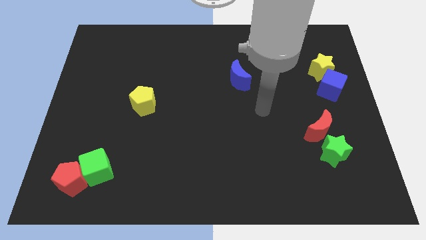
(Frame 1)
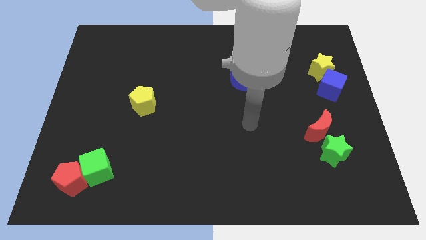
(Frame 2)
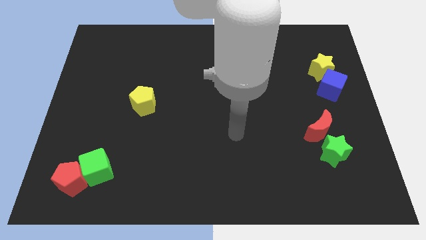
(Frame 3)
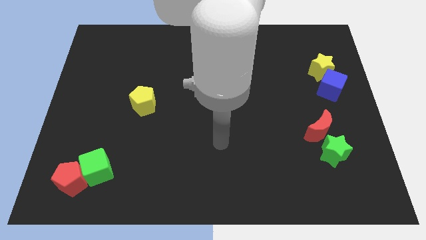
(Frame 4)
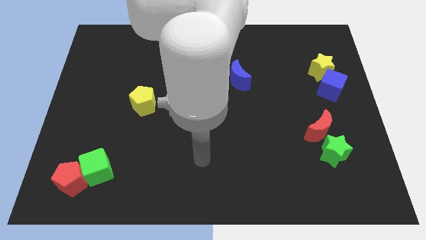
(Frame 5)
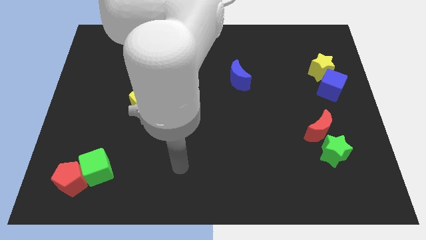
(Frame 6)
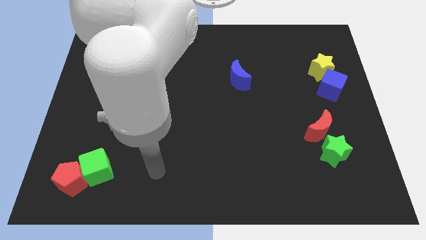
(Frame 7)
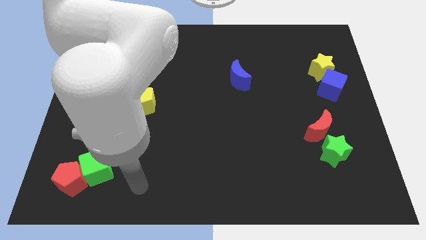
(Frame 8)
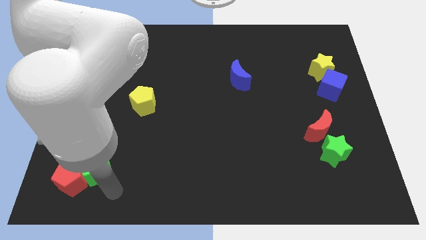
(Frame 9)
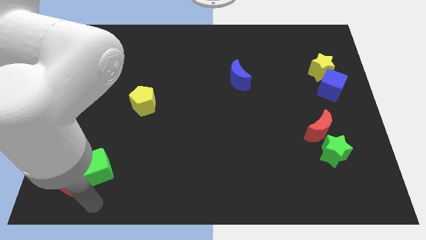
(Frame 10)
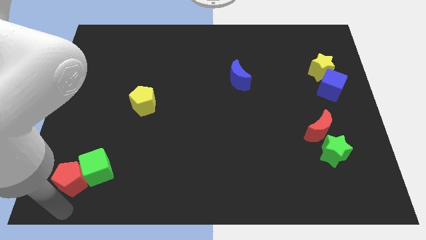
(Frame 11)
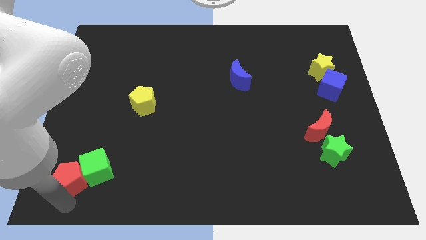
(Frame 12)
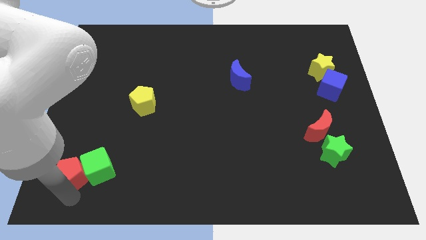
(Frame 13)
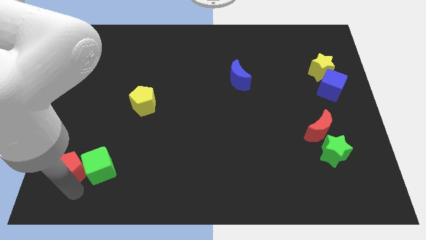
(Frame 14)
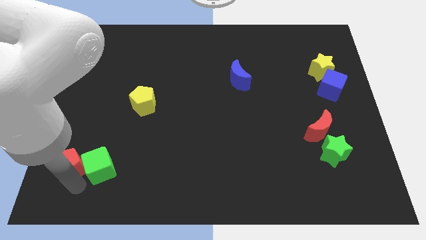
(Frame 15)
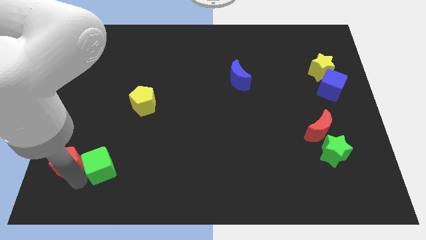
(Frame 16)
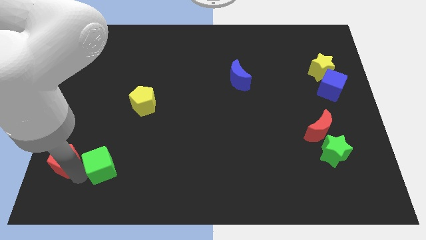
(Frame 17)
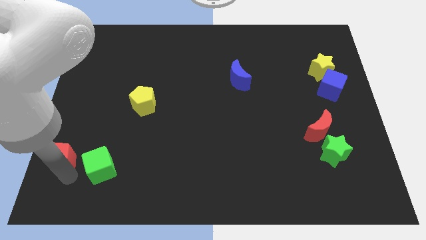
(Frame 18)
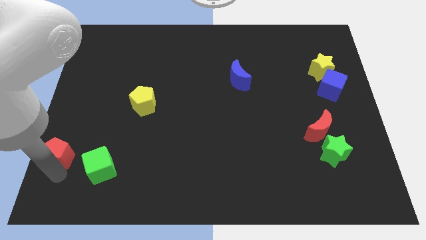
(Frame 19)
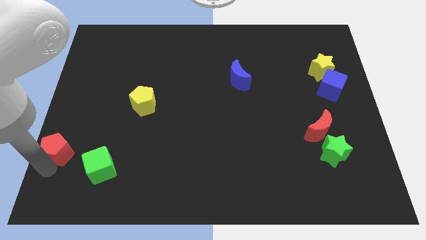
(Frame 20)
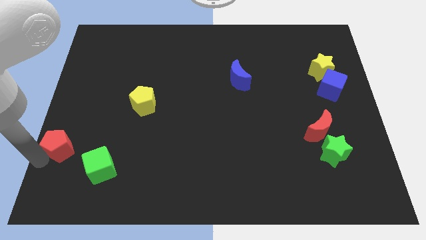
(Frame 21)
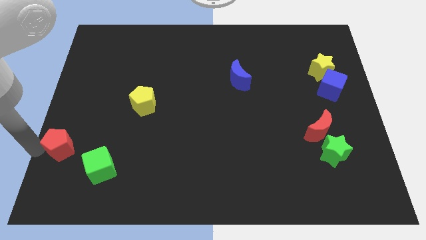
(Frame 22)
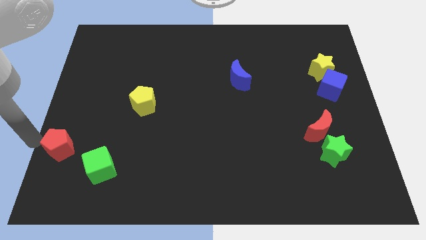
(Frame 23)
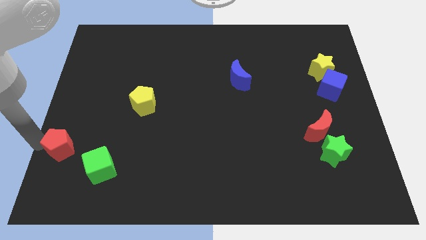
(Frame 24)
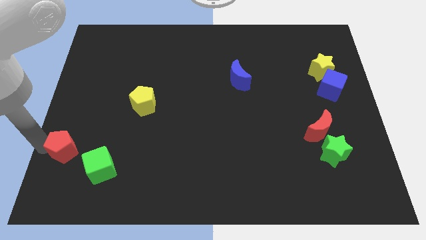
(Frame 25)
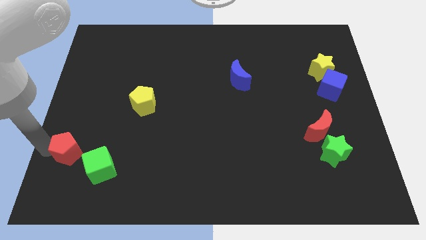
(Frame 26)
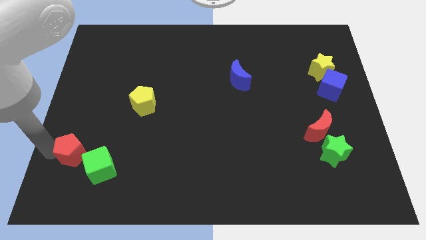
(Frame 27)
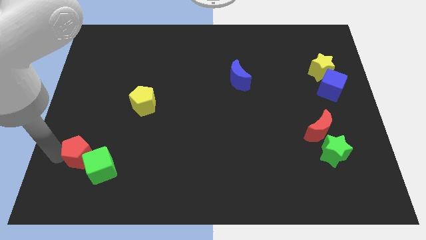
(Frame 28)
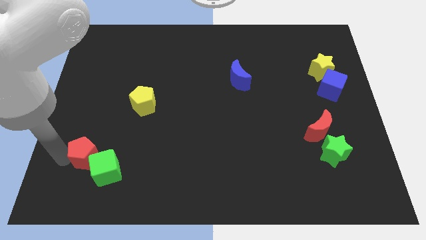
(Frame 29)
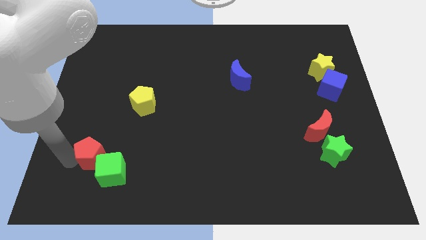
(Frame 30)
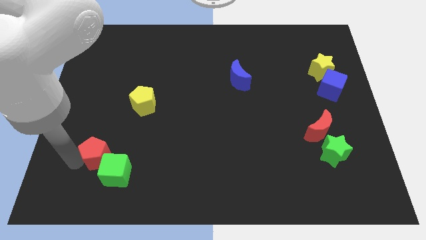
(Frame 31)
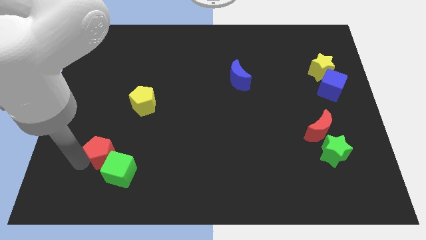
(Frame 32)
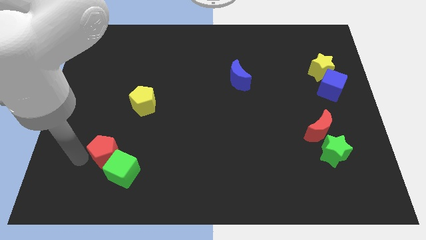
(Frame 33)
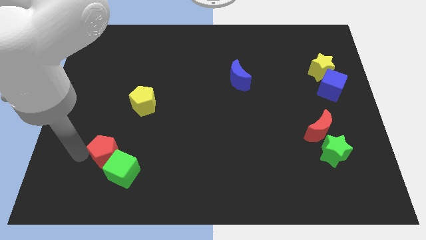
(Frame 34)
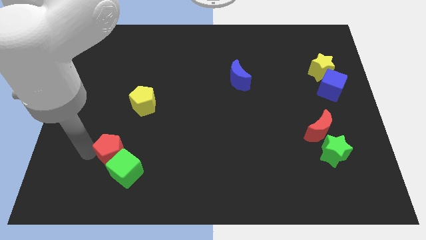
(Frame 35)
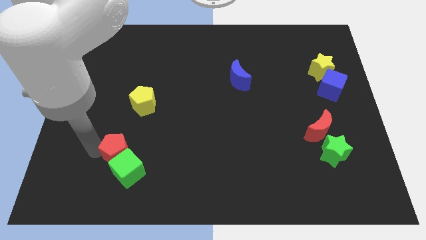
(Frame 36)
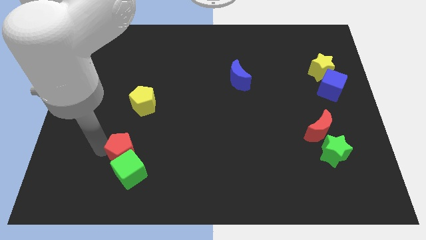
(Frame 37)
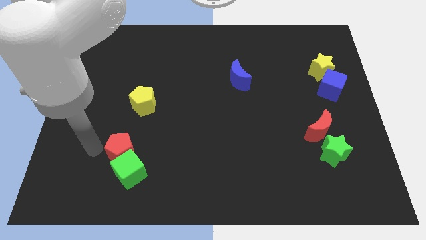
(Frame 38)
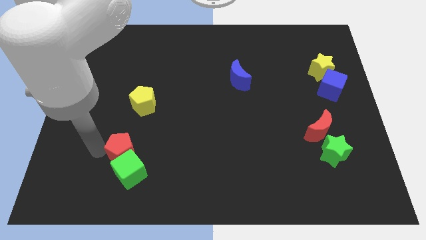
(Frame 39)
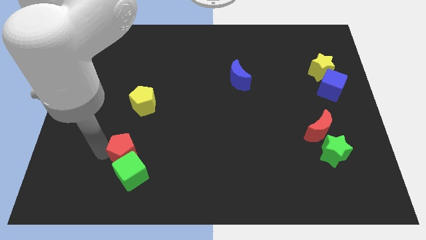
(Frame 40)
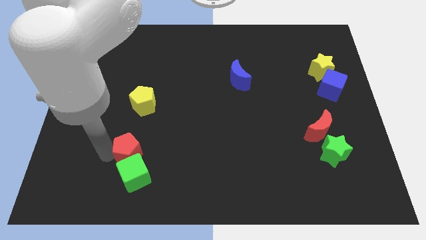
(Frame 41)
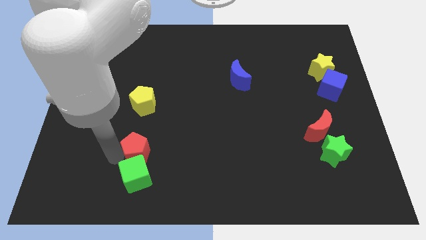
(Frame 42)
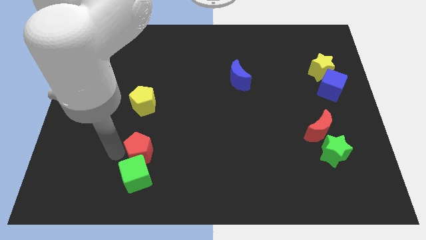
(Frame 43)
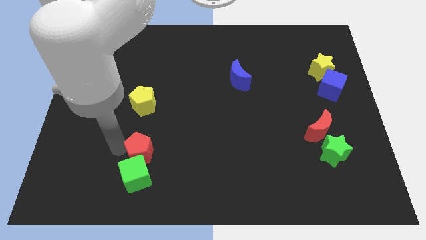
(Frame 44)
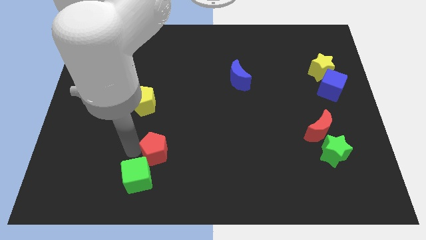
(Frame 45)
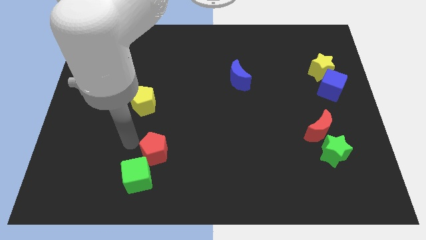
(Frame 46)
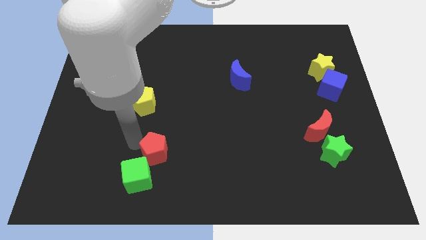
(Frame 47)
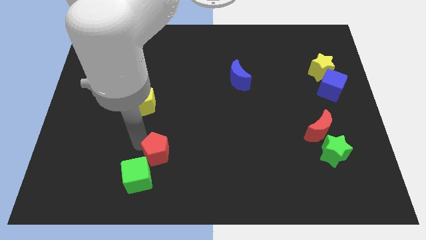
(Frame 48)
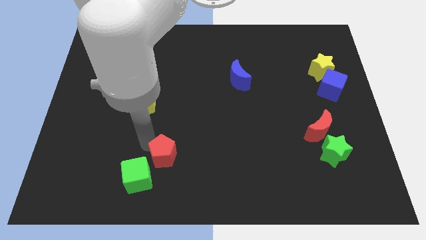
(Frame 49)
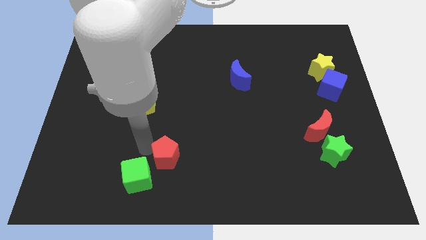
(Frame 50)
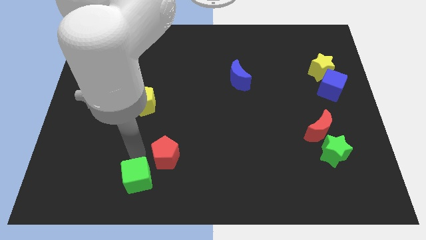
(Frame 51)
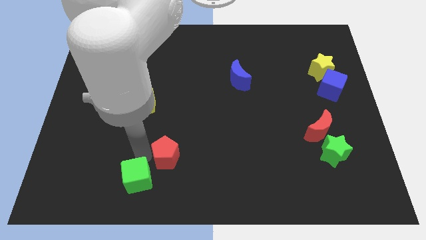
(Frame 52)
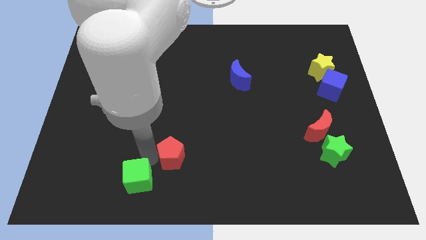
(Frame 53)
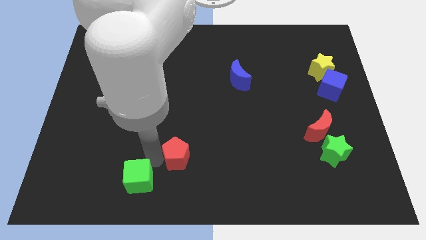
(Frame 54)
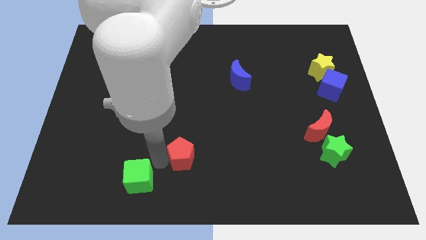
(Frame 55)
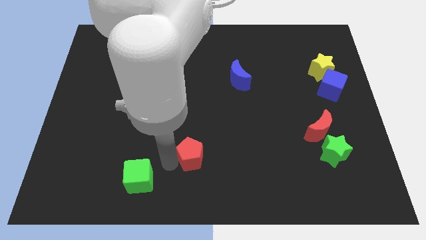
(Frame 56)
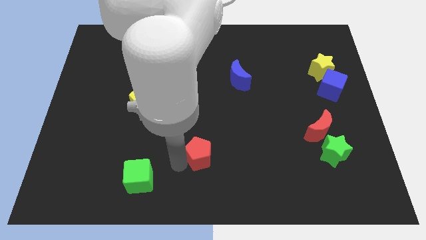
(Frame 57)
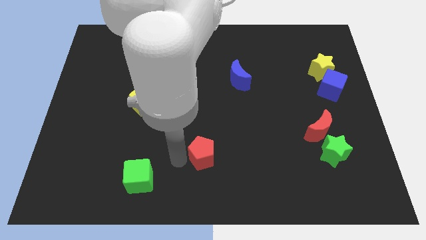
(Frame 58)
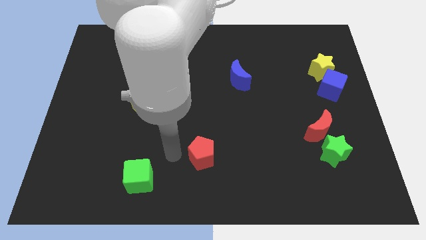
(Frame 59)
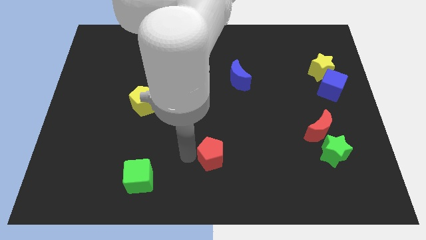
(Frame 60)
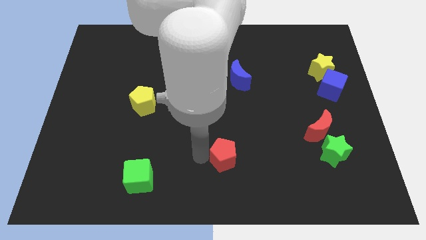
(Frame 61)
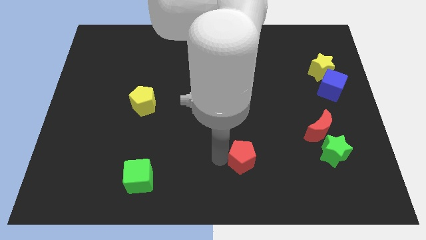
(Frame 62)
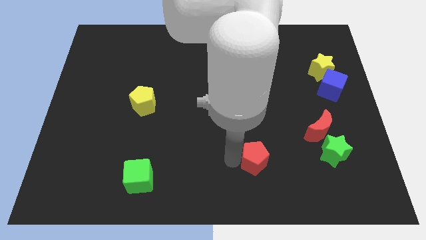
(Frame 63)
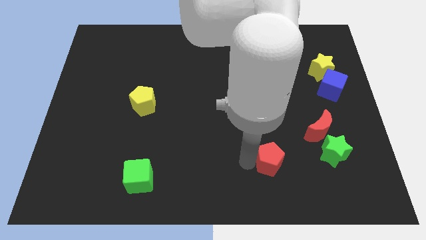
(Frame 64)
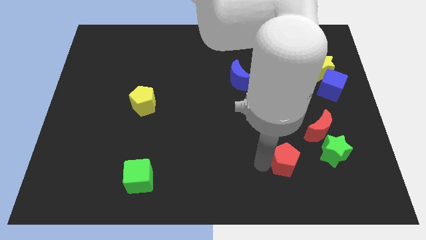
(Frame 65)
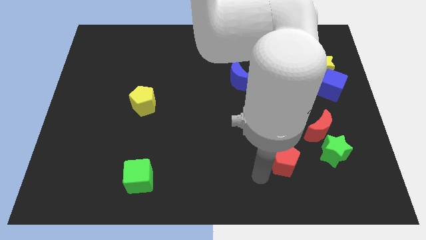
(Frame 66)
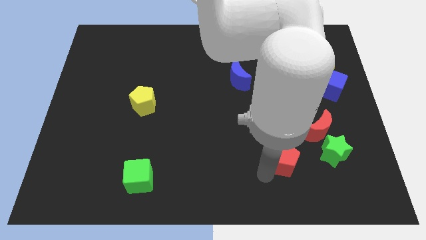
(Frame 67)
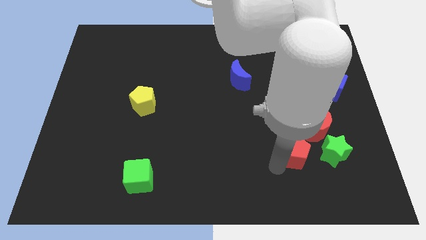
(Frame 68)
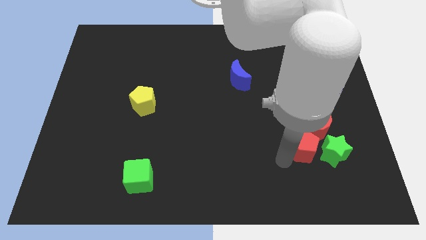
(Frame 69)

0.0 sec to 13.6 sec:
move the red pentagon towards the green star

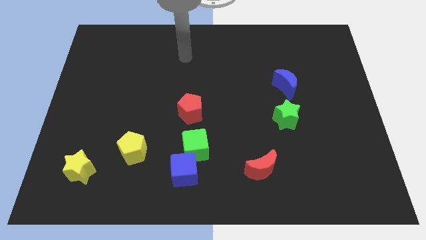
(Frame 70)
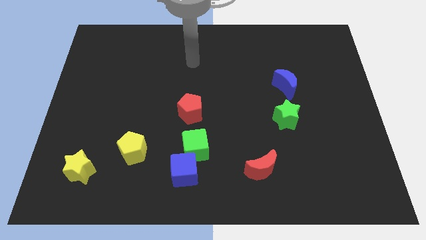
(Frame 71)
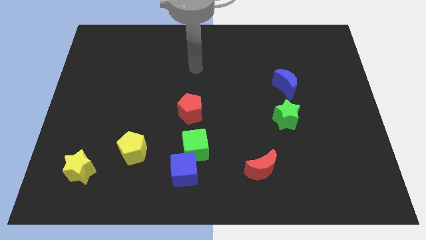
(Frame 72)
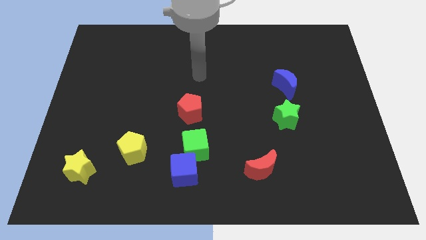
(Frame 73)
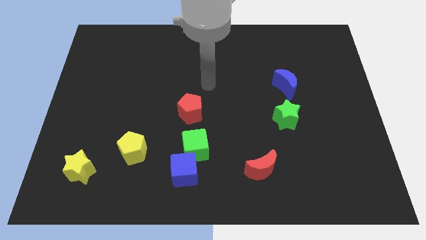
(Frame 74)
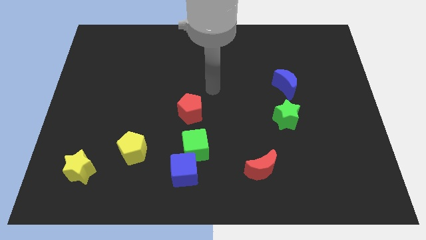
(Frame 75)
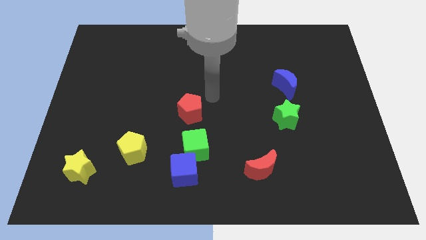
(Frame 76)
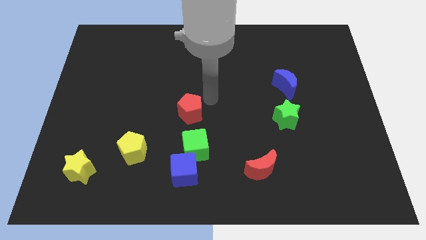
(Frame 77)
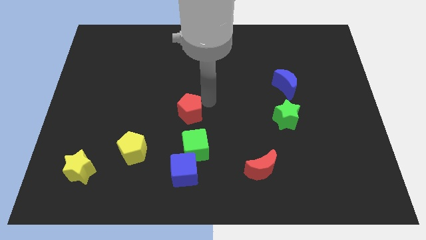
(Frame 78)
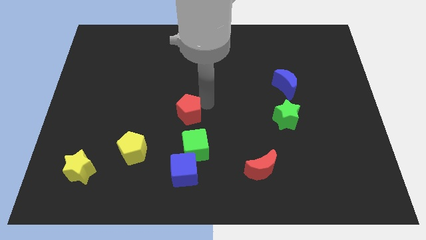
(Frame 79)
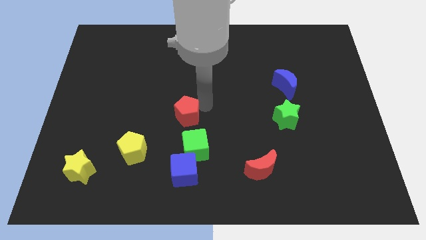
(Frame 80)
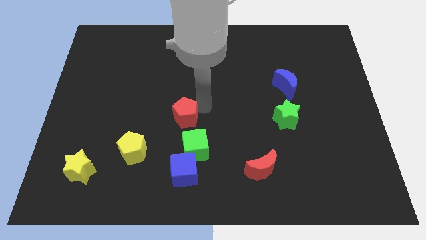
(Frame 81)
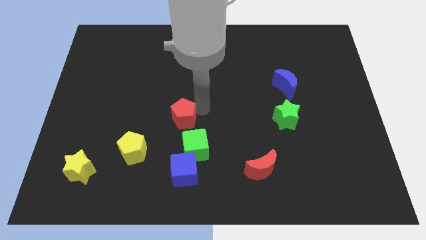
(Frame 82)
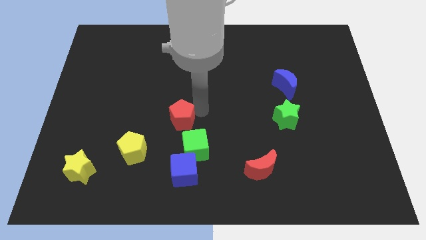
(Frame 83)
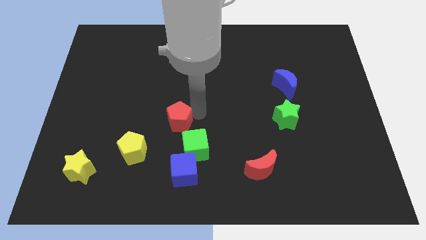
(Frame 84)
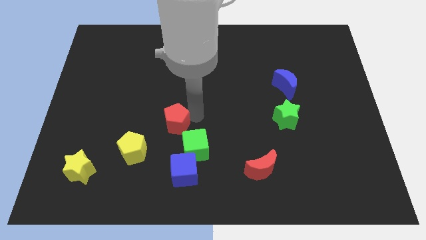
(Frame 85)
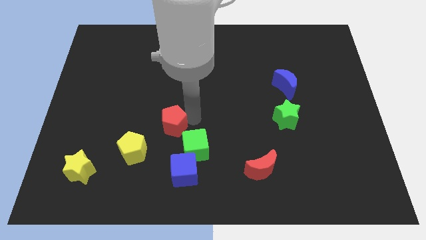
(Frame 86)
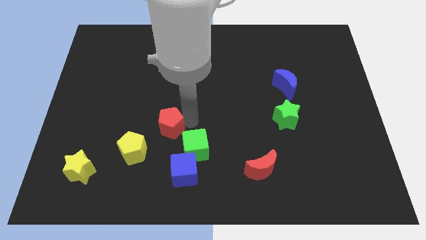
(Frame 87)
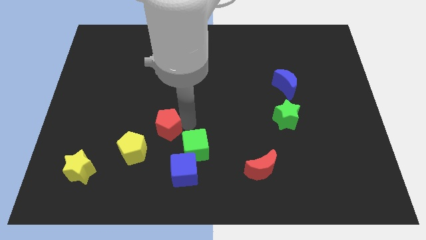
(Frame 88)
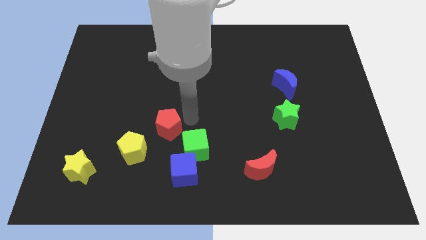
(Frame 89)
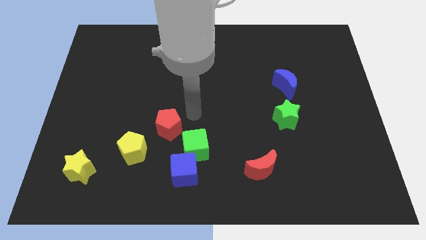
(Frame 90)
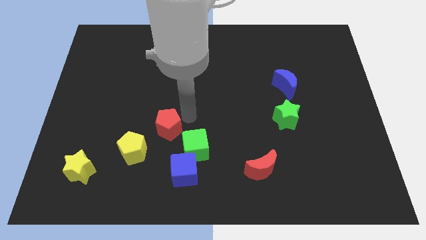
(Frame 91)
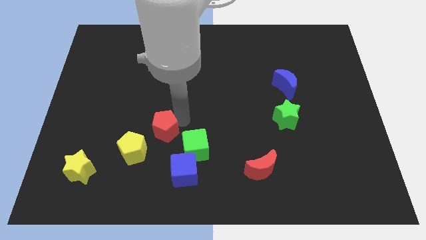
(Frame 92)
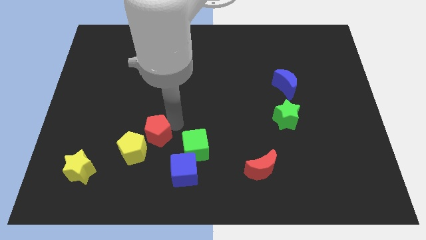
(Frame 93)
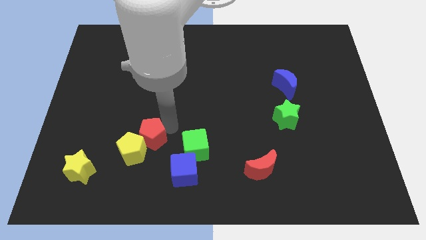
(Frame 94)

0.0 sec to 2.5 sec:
slide the red pentagon close to the yellow pentagon
